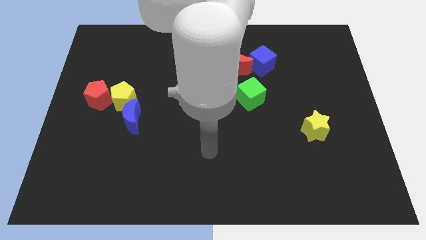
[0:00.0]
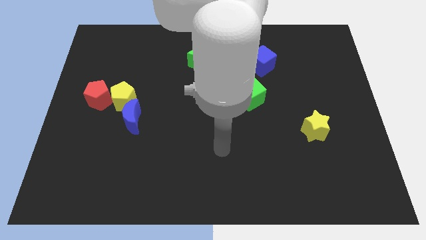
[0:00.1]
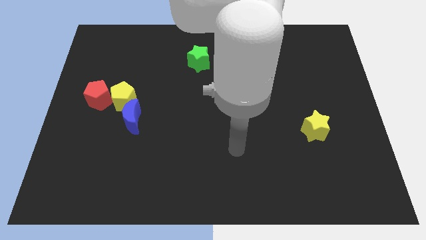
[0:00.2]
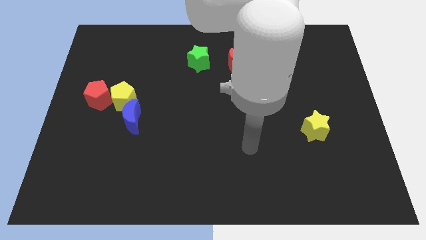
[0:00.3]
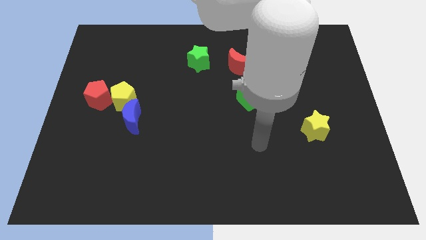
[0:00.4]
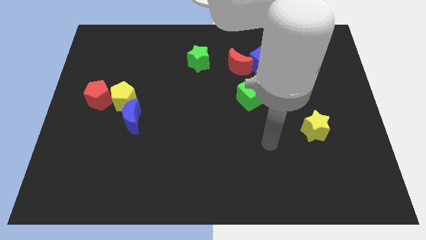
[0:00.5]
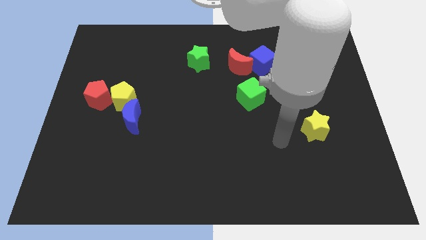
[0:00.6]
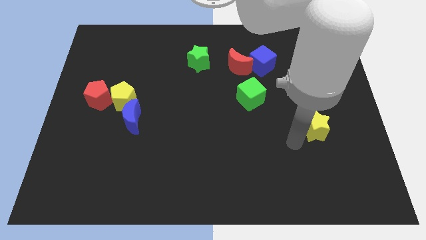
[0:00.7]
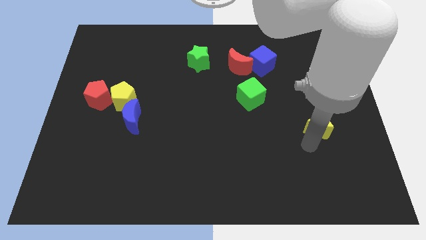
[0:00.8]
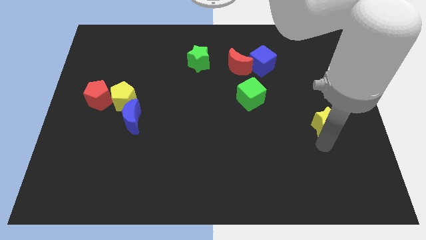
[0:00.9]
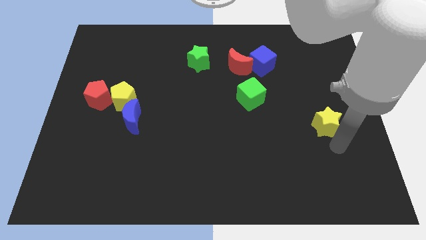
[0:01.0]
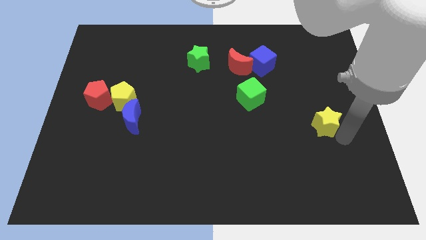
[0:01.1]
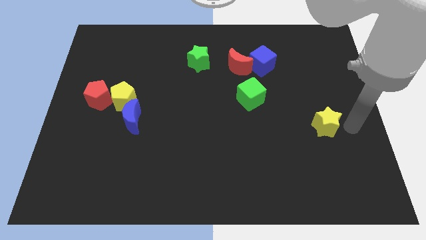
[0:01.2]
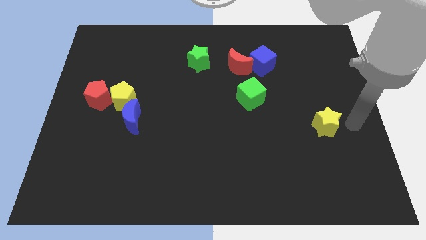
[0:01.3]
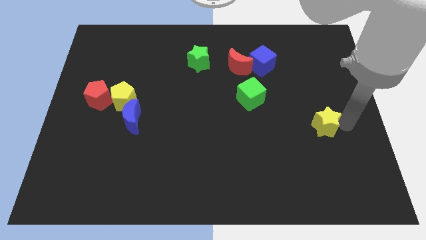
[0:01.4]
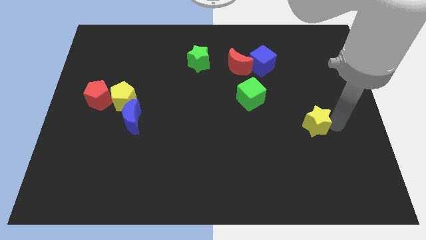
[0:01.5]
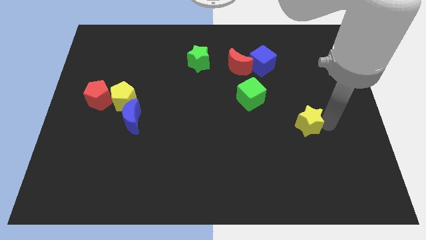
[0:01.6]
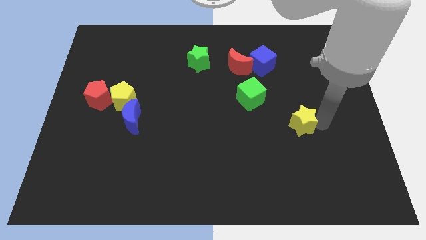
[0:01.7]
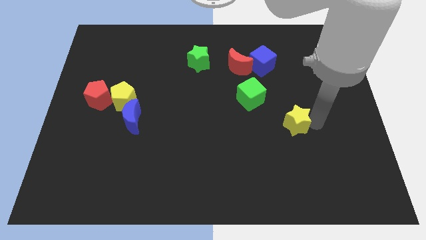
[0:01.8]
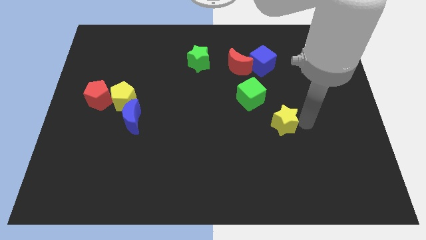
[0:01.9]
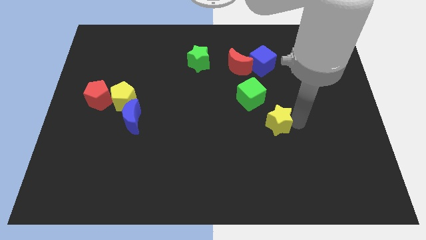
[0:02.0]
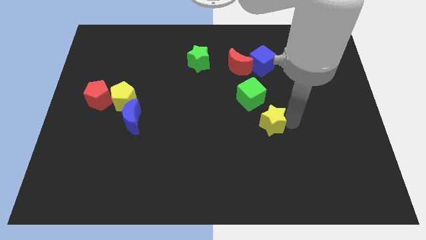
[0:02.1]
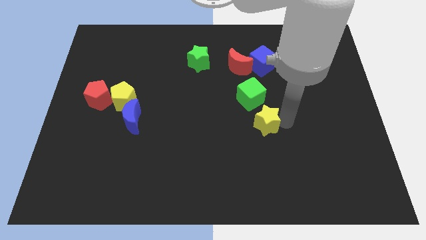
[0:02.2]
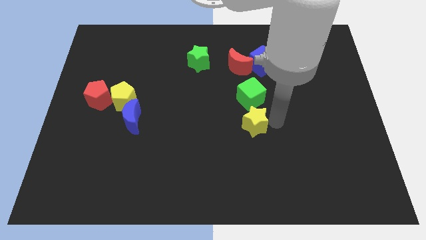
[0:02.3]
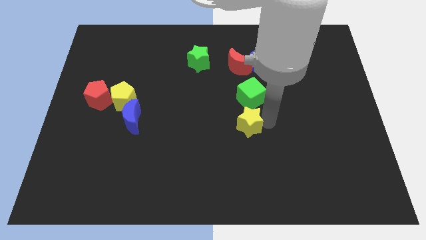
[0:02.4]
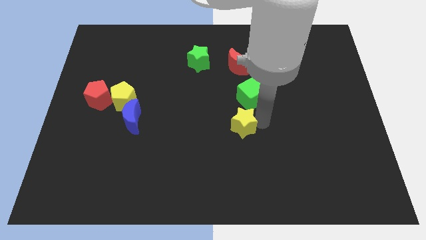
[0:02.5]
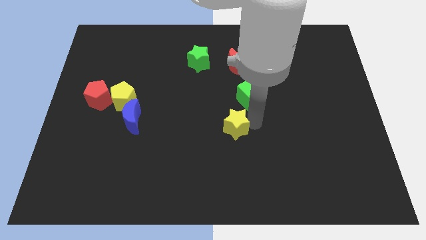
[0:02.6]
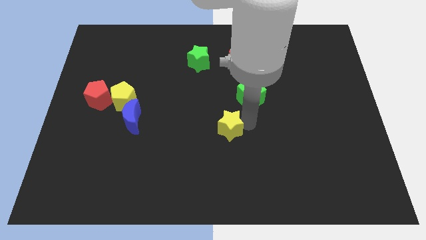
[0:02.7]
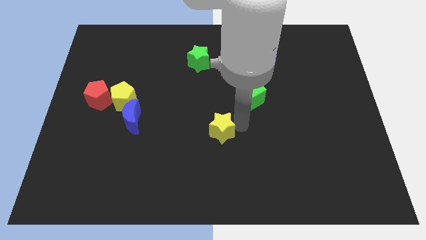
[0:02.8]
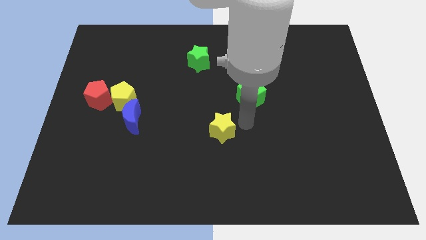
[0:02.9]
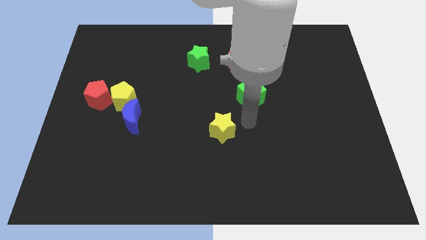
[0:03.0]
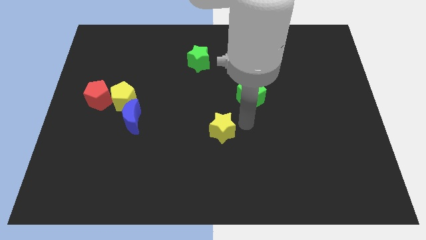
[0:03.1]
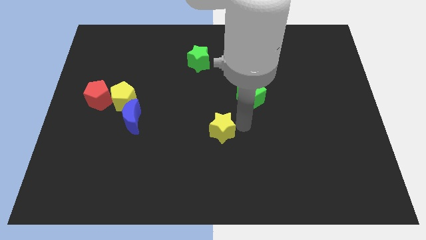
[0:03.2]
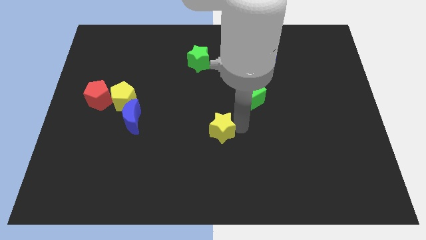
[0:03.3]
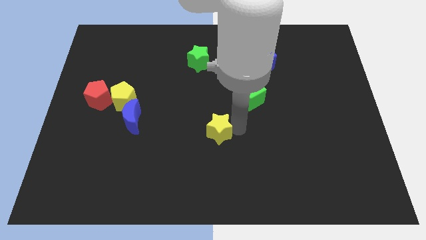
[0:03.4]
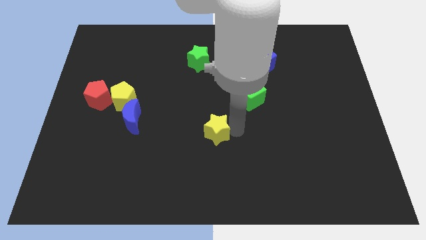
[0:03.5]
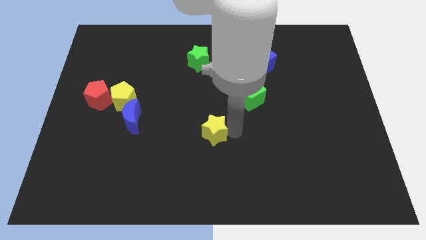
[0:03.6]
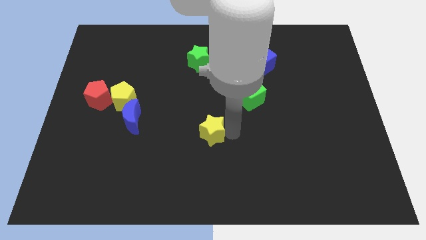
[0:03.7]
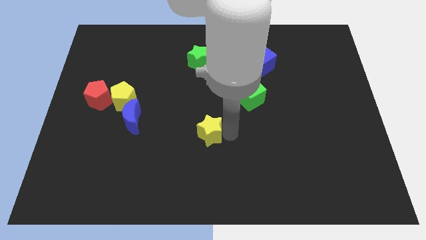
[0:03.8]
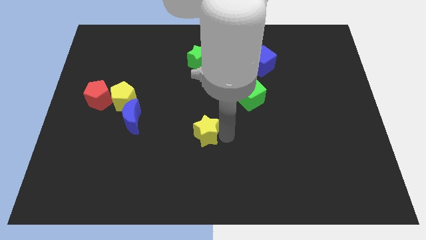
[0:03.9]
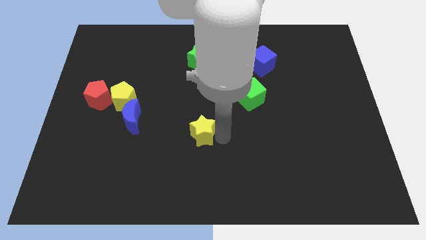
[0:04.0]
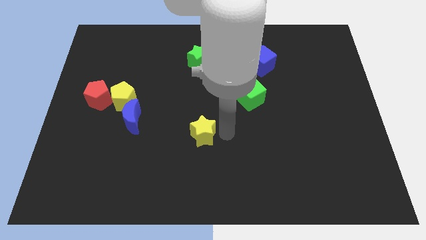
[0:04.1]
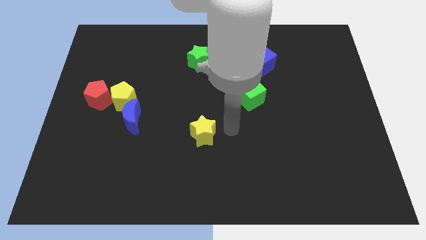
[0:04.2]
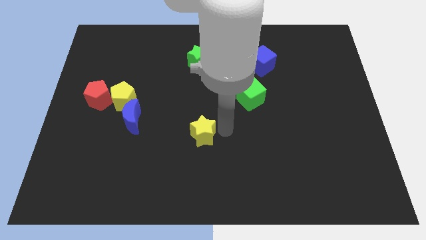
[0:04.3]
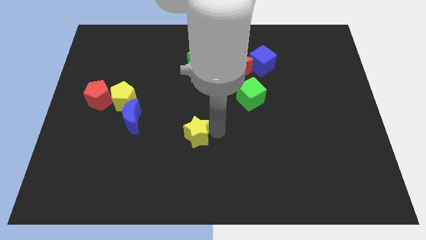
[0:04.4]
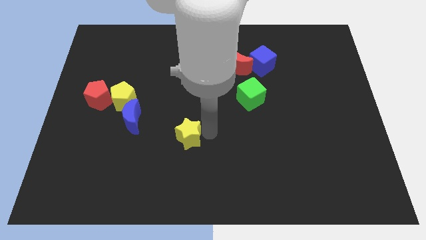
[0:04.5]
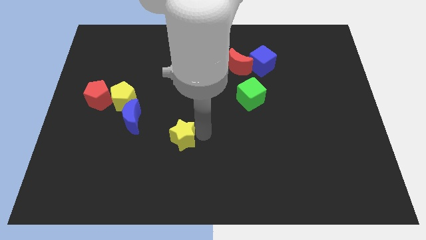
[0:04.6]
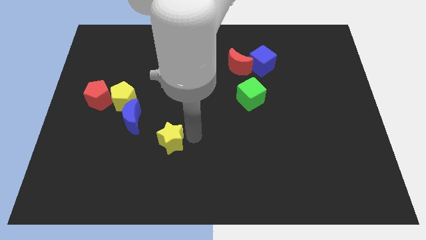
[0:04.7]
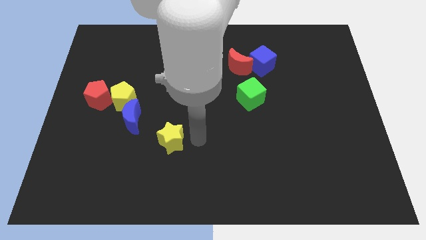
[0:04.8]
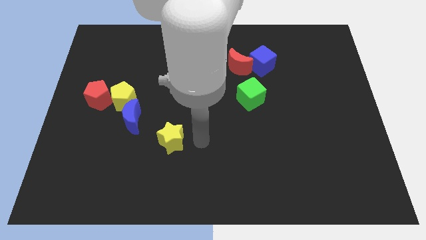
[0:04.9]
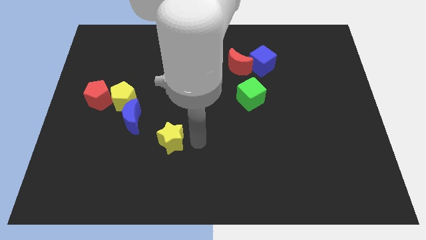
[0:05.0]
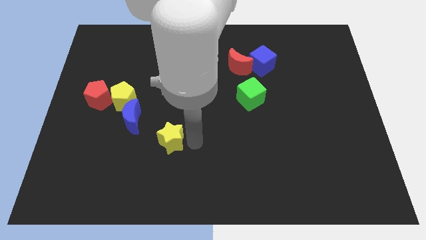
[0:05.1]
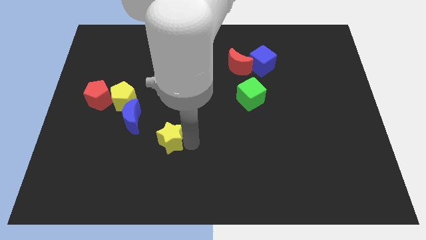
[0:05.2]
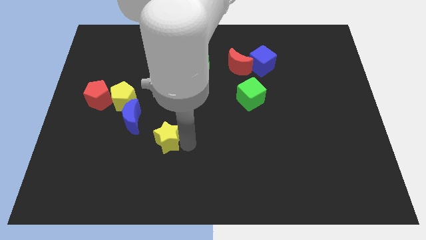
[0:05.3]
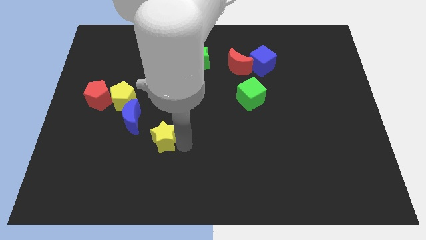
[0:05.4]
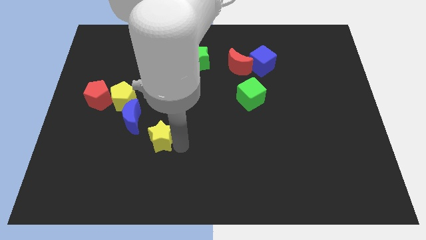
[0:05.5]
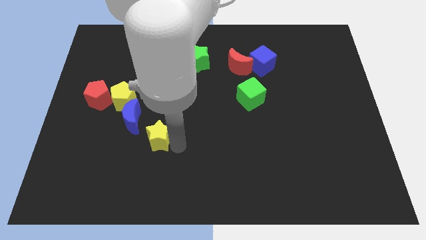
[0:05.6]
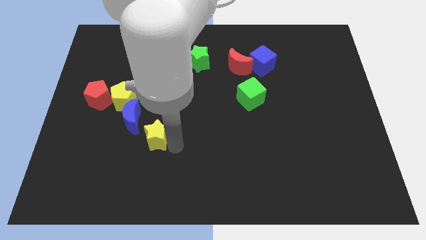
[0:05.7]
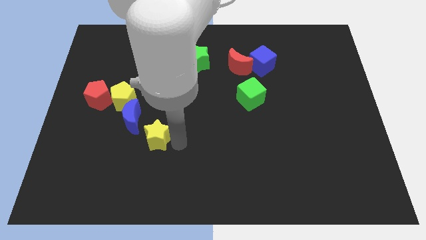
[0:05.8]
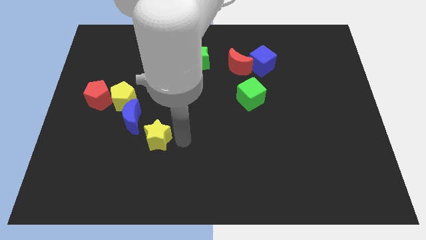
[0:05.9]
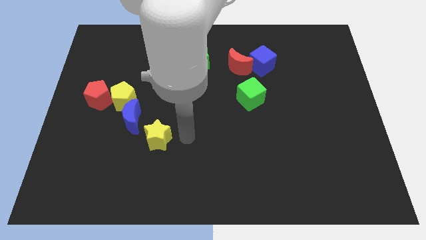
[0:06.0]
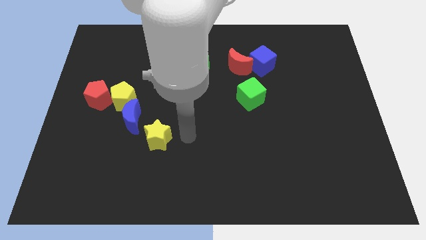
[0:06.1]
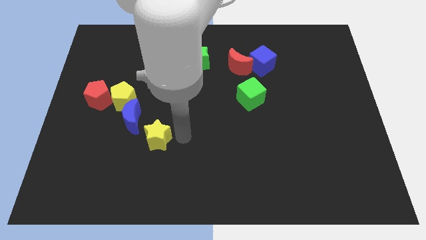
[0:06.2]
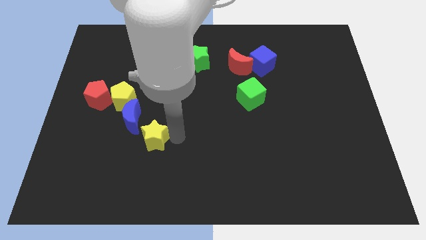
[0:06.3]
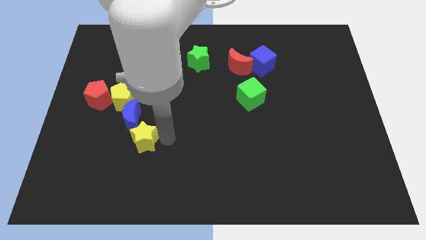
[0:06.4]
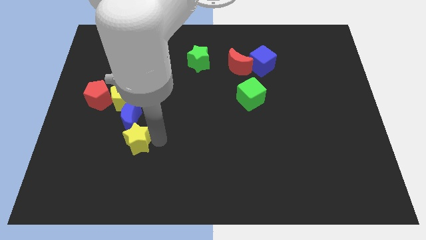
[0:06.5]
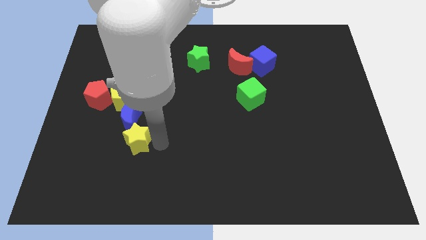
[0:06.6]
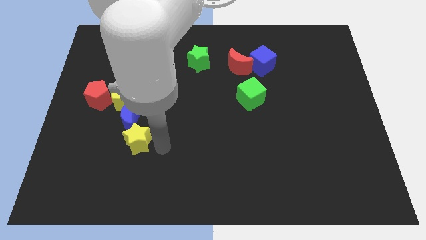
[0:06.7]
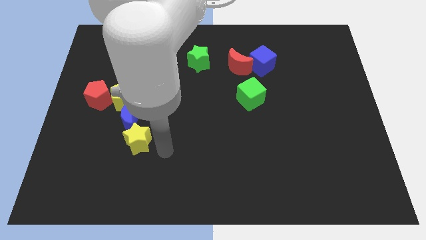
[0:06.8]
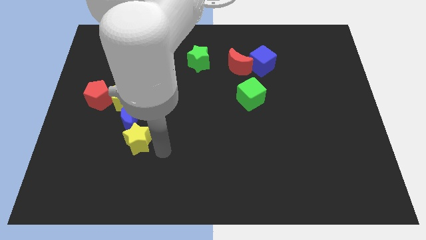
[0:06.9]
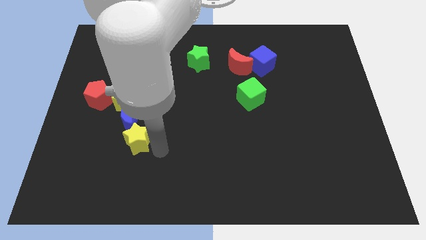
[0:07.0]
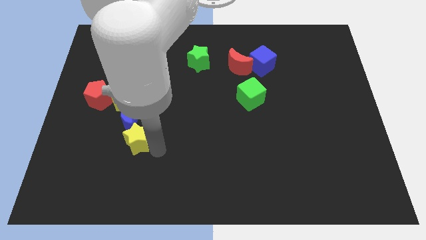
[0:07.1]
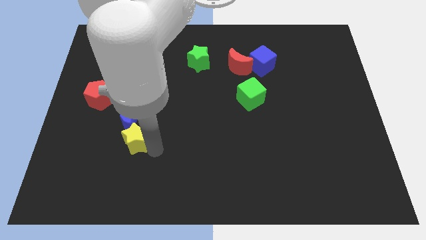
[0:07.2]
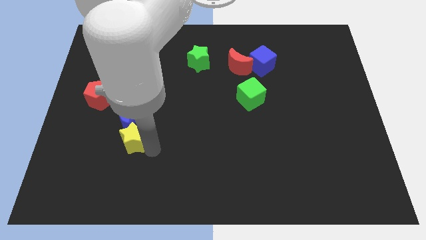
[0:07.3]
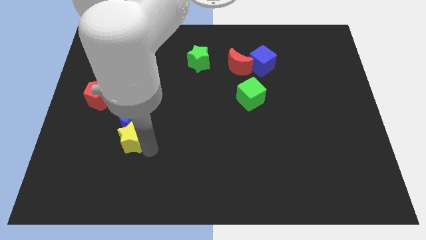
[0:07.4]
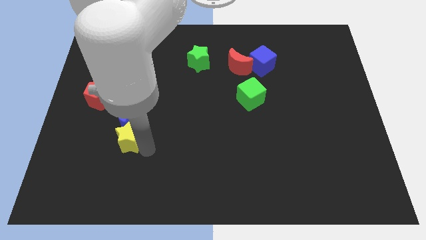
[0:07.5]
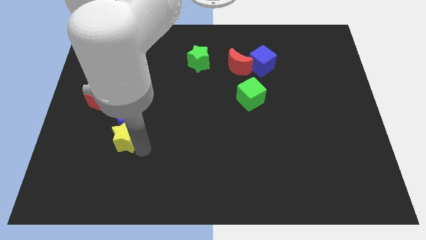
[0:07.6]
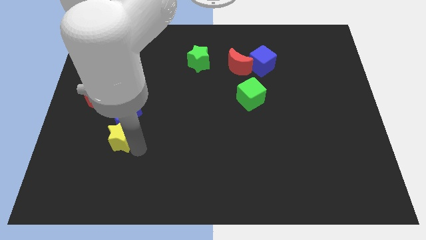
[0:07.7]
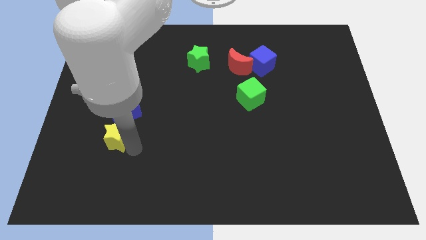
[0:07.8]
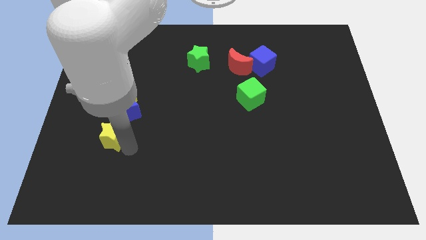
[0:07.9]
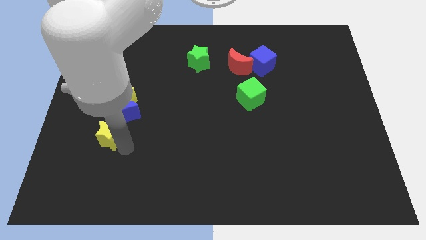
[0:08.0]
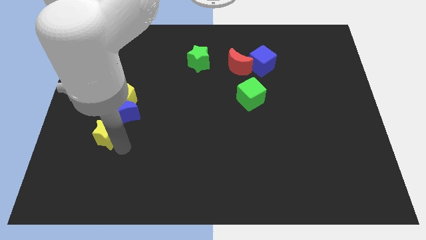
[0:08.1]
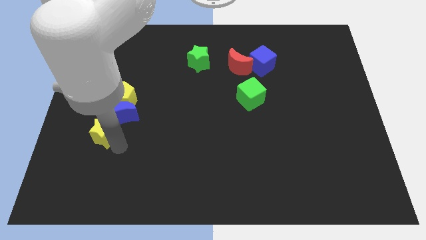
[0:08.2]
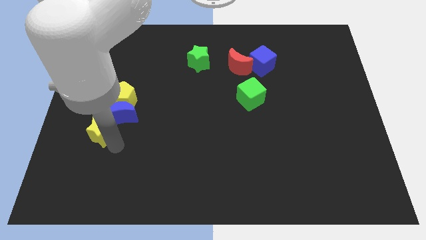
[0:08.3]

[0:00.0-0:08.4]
move the yellow star to the bottom left side of the yellow pentagon
